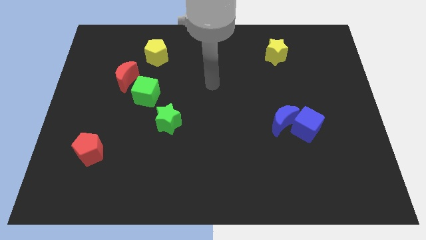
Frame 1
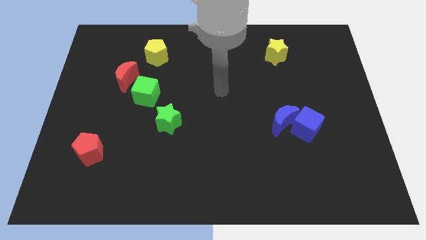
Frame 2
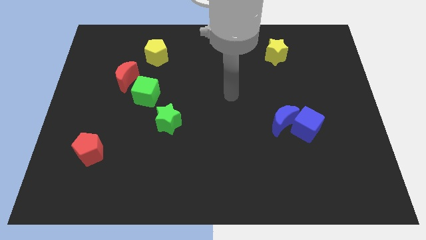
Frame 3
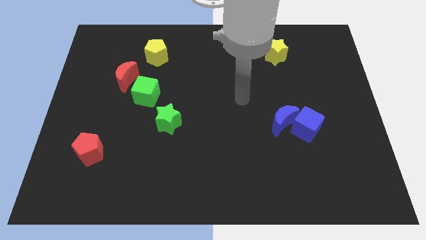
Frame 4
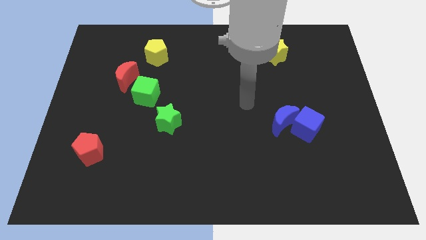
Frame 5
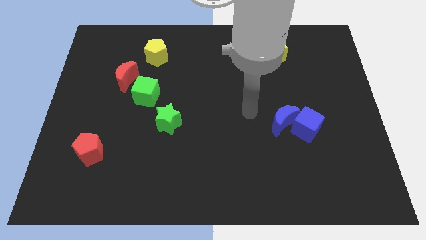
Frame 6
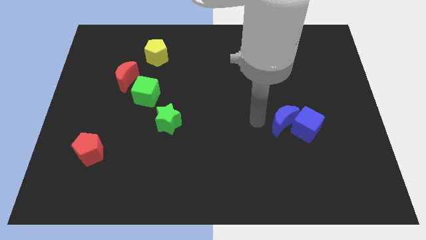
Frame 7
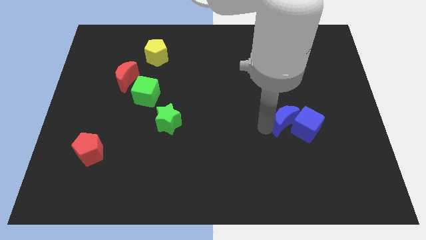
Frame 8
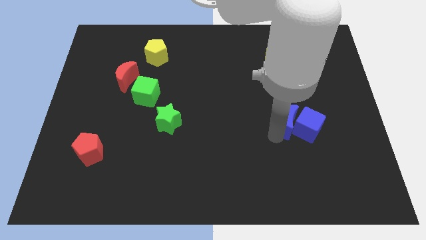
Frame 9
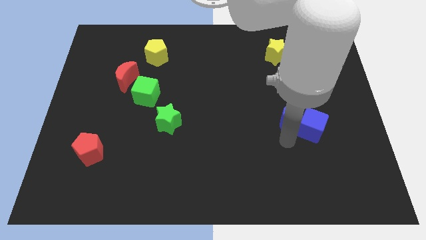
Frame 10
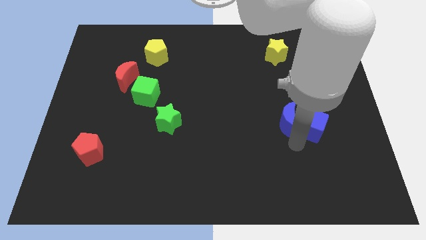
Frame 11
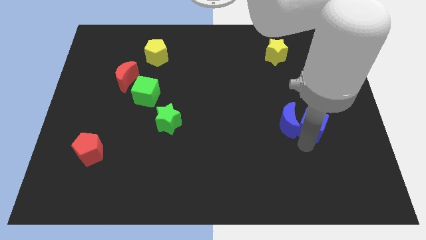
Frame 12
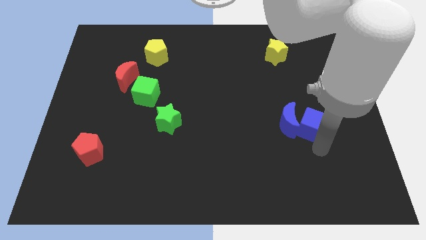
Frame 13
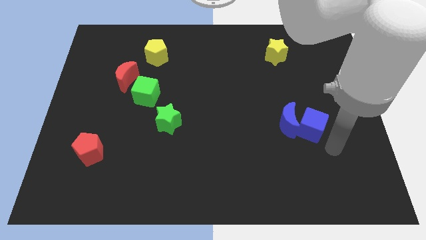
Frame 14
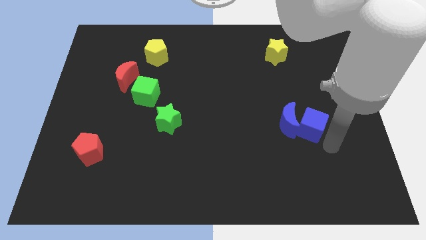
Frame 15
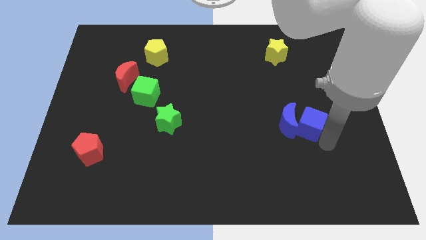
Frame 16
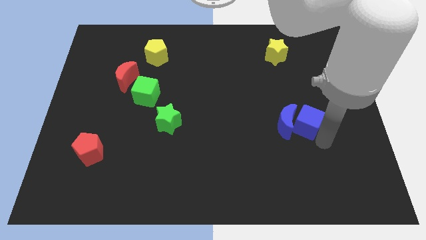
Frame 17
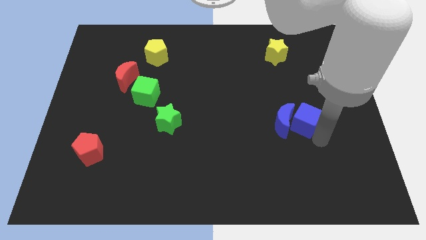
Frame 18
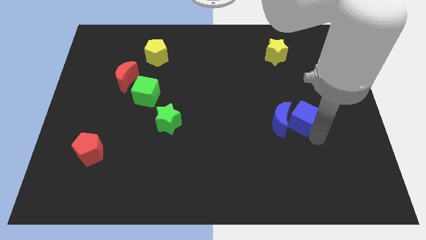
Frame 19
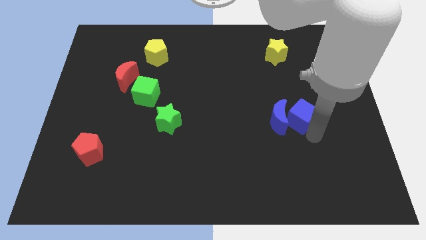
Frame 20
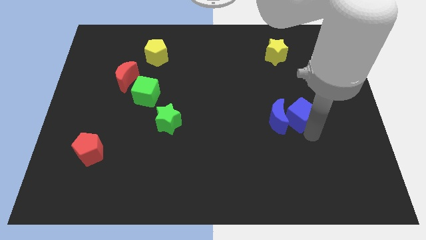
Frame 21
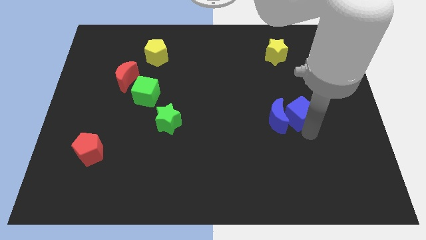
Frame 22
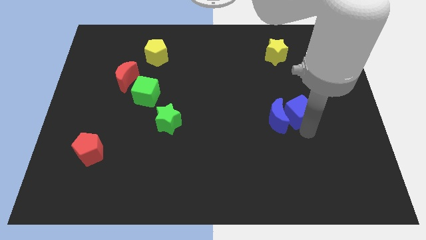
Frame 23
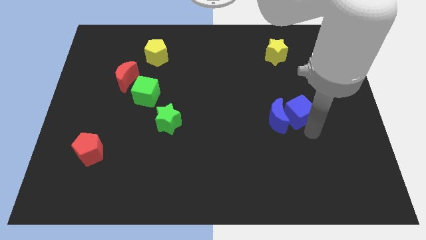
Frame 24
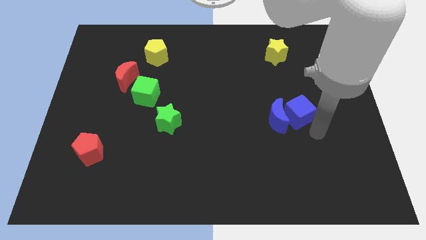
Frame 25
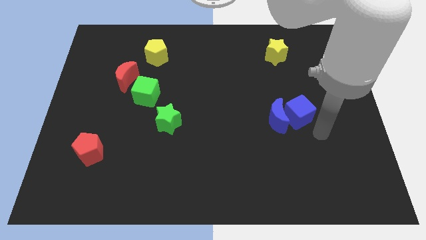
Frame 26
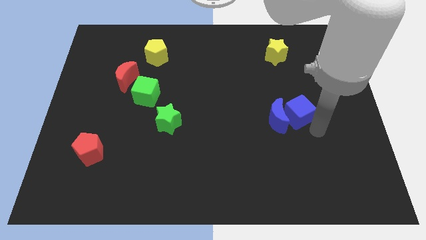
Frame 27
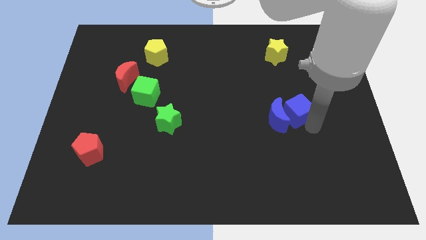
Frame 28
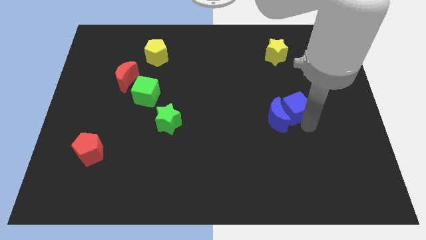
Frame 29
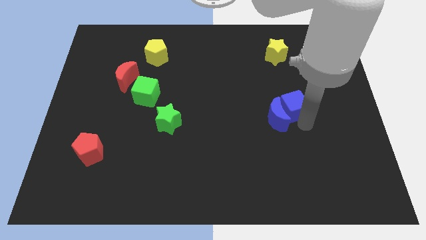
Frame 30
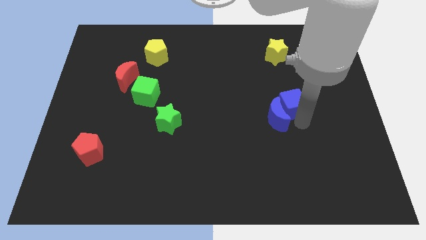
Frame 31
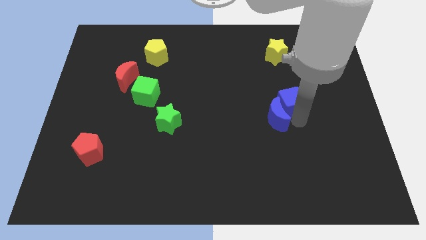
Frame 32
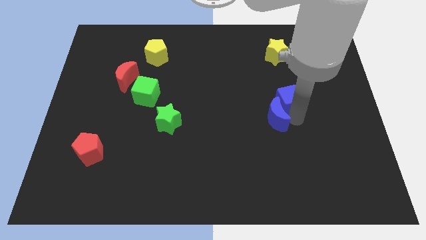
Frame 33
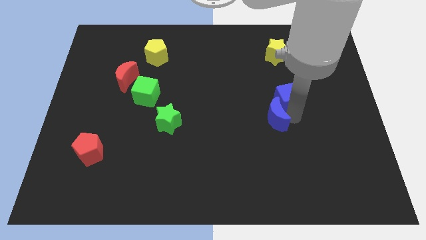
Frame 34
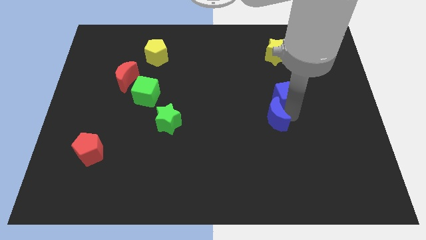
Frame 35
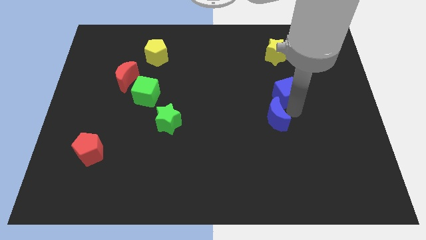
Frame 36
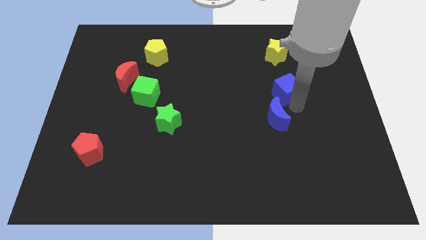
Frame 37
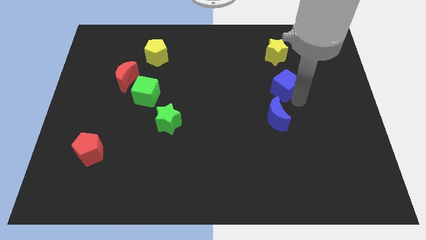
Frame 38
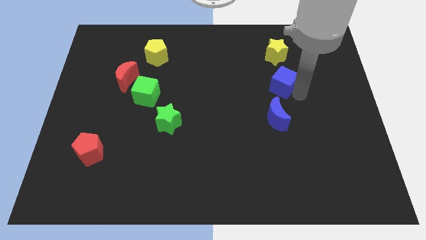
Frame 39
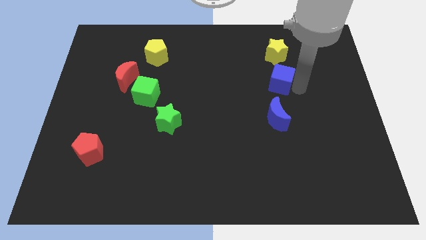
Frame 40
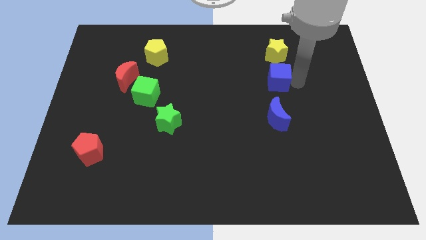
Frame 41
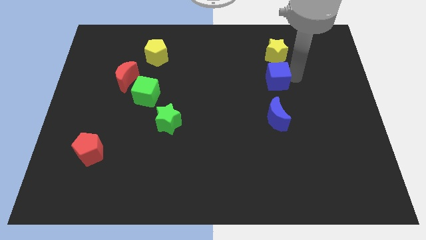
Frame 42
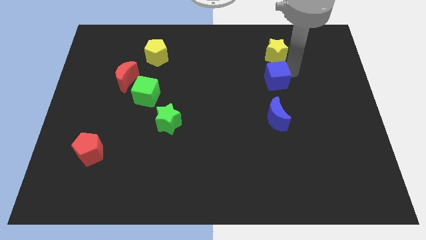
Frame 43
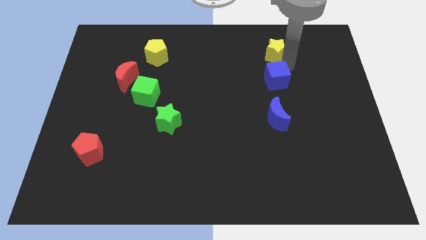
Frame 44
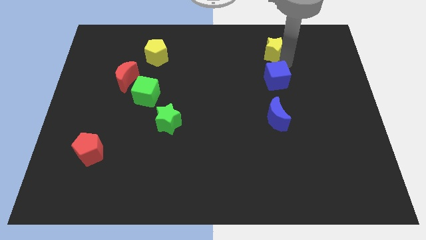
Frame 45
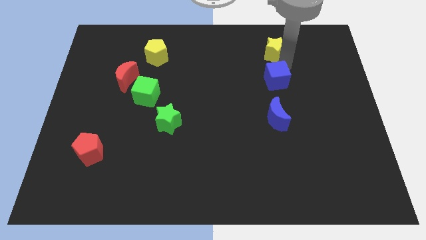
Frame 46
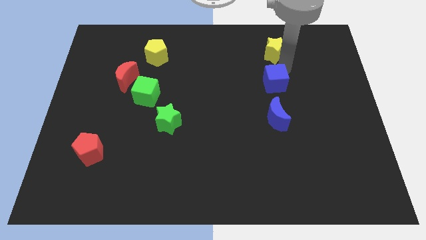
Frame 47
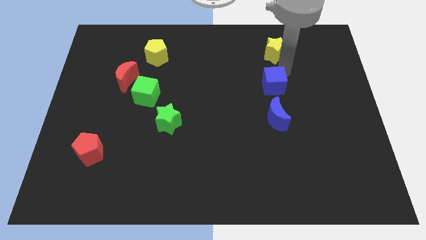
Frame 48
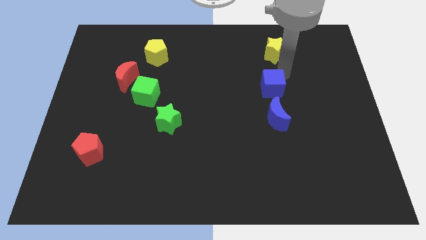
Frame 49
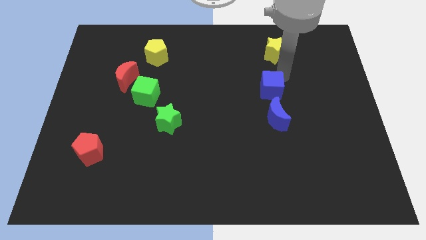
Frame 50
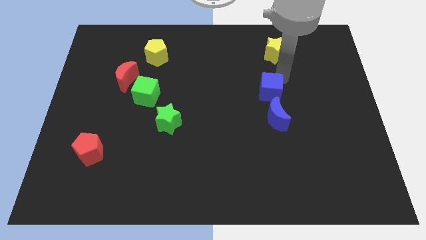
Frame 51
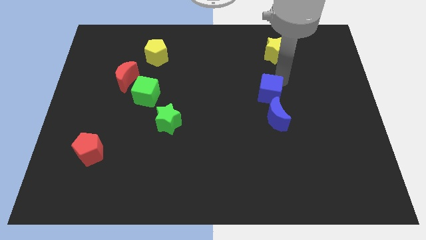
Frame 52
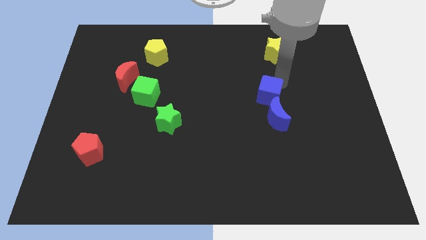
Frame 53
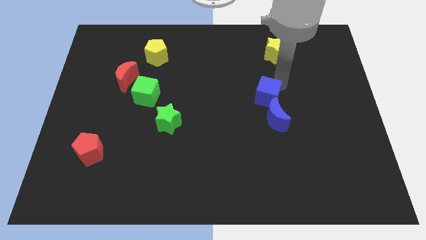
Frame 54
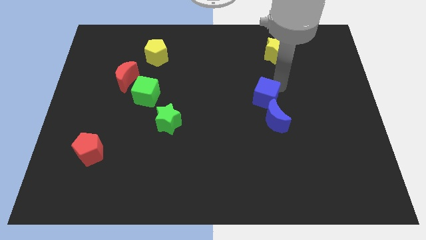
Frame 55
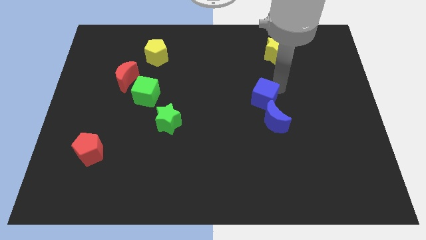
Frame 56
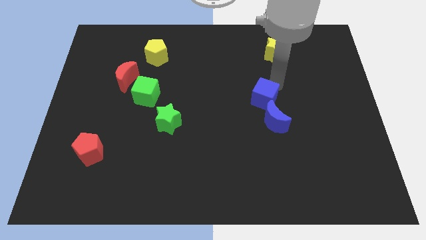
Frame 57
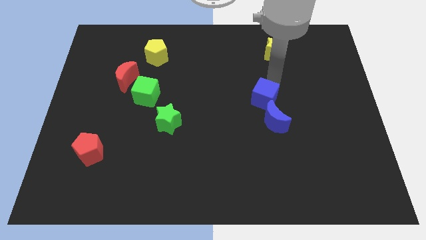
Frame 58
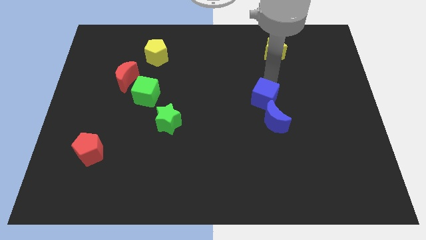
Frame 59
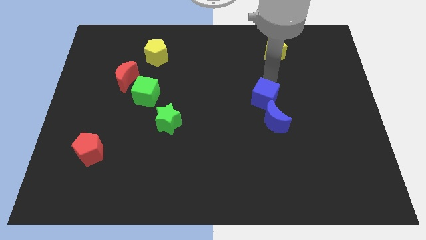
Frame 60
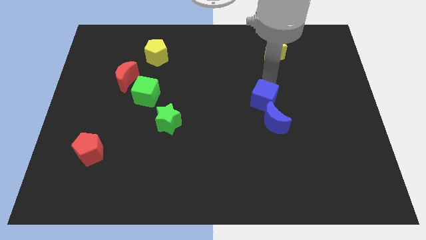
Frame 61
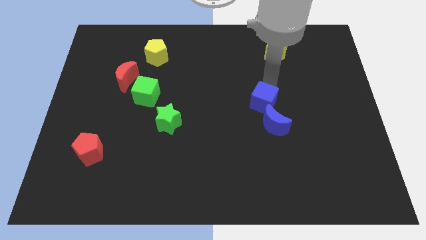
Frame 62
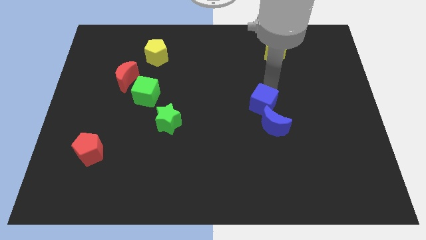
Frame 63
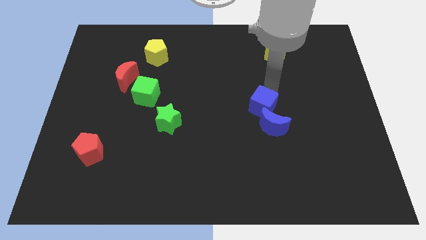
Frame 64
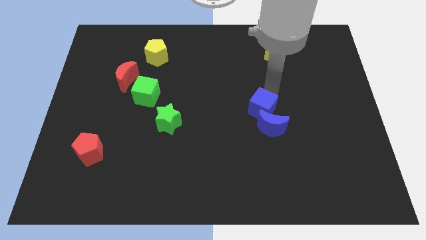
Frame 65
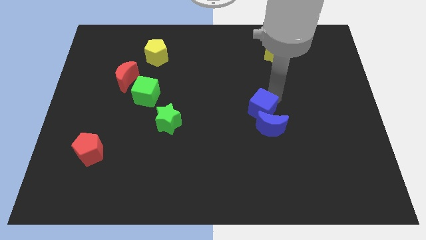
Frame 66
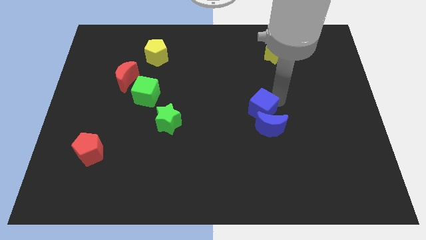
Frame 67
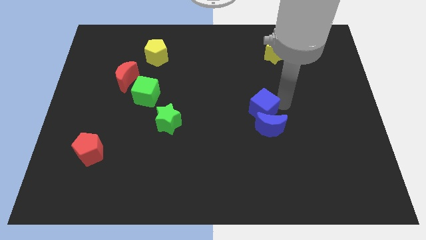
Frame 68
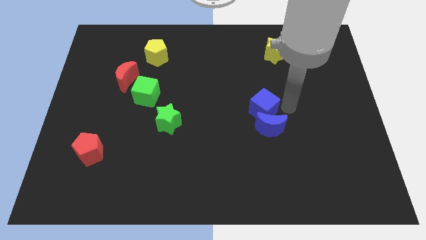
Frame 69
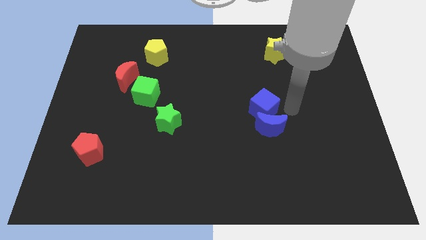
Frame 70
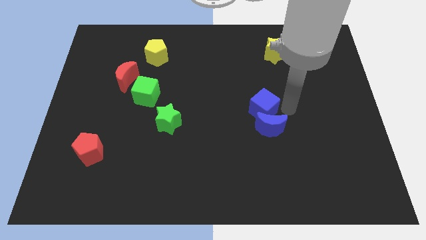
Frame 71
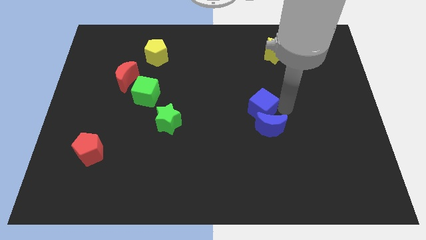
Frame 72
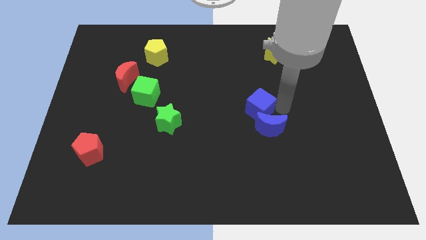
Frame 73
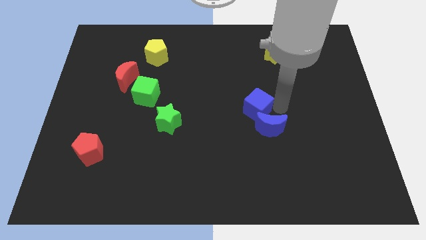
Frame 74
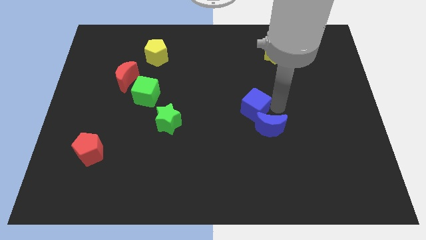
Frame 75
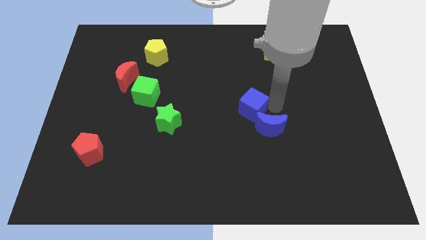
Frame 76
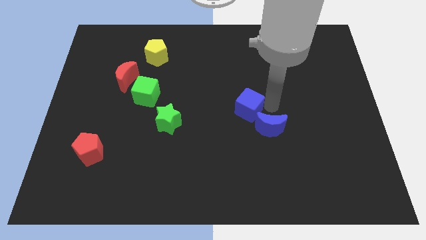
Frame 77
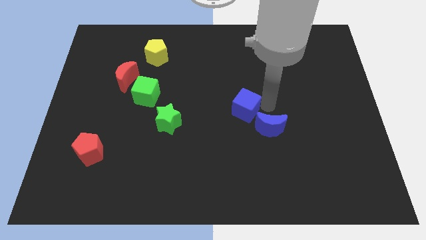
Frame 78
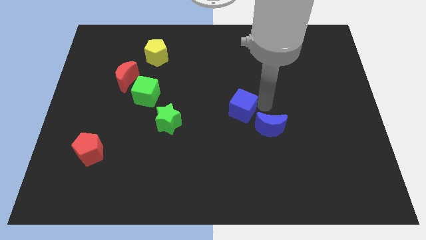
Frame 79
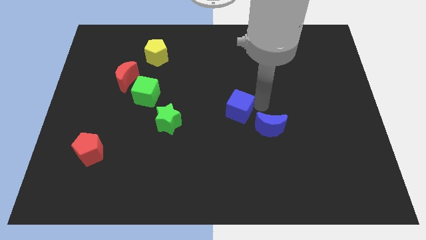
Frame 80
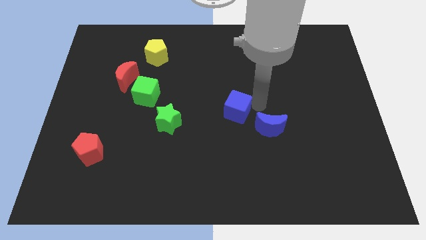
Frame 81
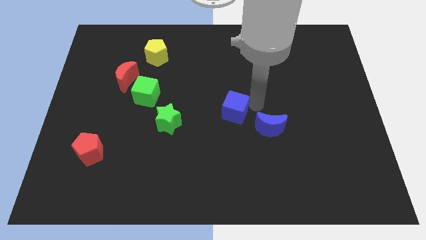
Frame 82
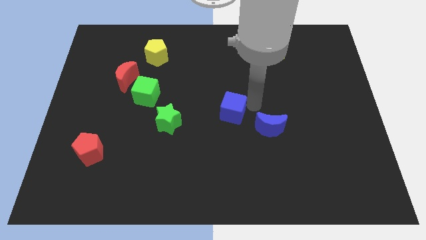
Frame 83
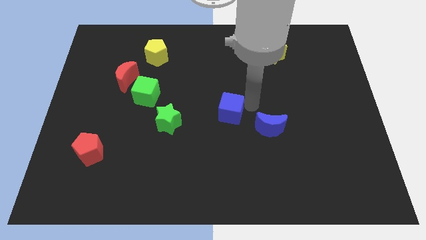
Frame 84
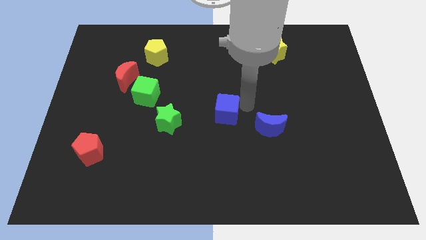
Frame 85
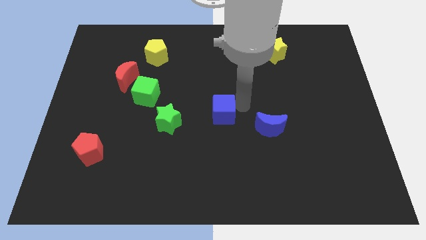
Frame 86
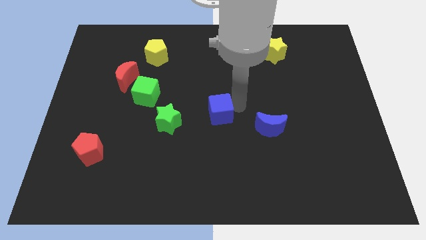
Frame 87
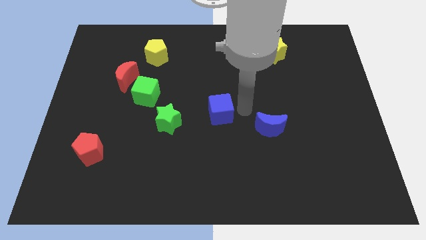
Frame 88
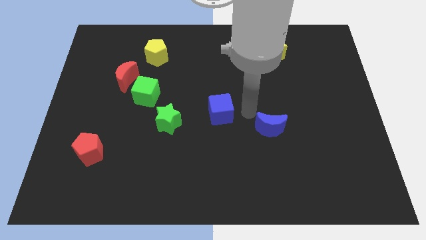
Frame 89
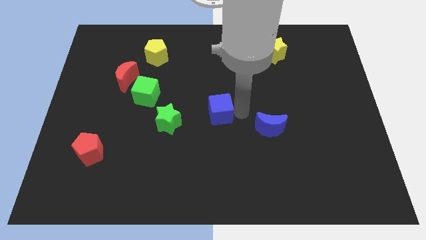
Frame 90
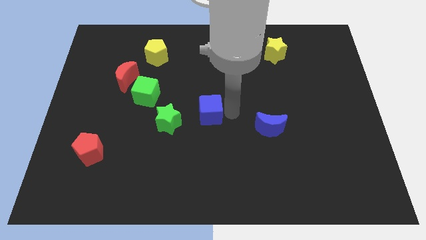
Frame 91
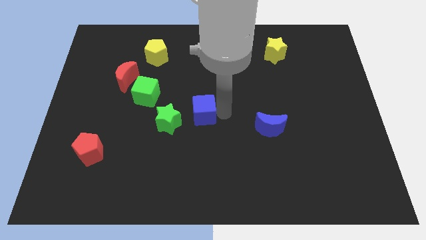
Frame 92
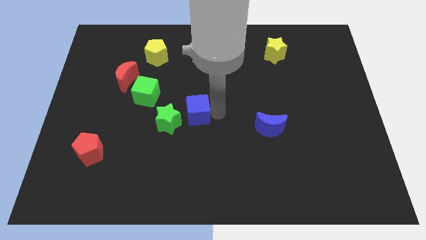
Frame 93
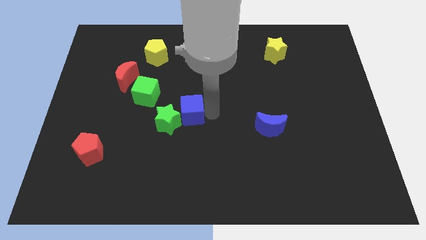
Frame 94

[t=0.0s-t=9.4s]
slide the blue cube to the green star
